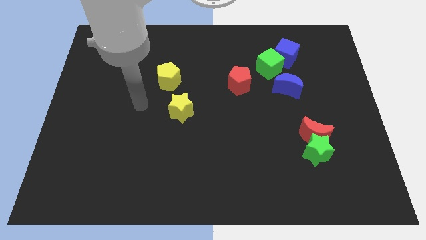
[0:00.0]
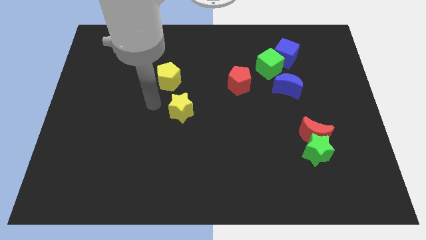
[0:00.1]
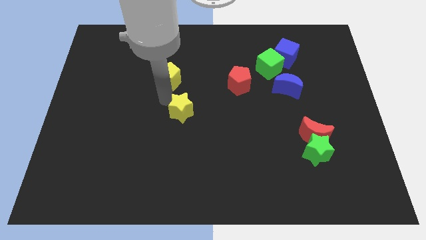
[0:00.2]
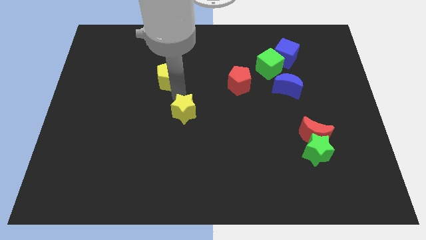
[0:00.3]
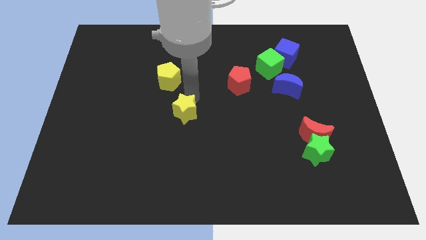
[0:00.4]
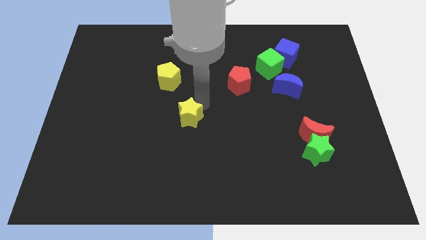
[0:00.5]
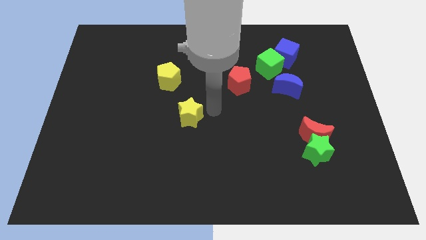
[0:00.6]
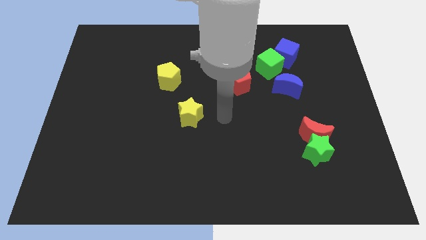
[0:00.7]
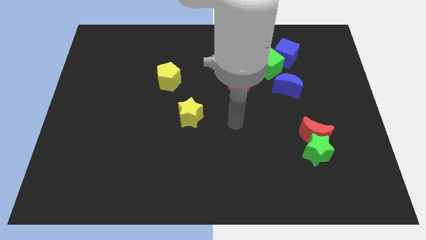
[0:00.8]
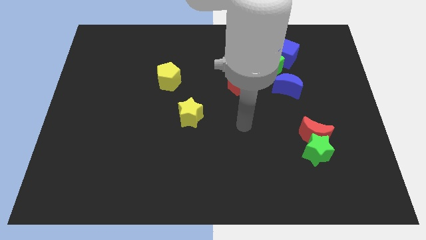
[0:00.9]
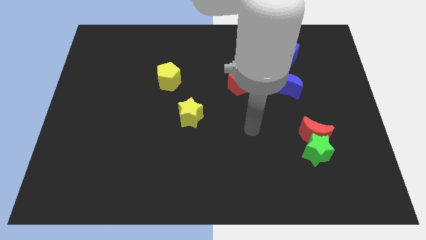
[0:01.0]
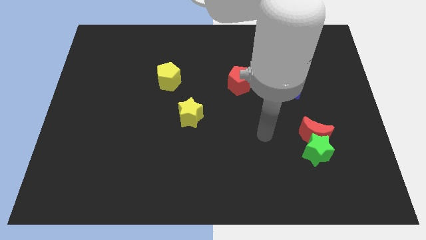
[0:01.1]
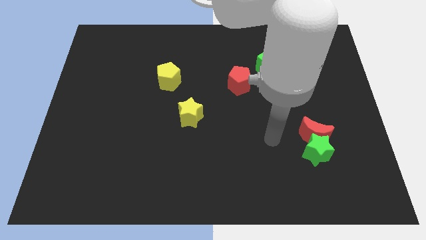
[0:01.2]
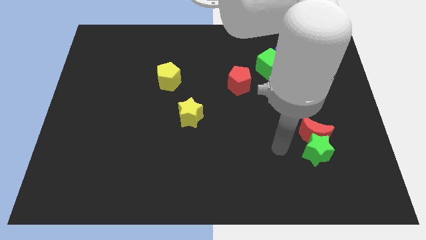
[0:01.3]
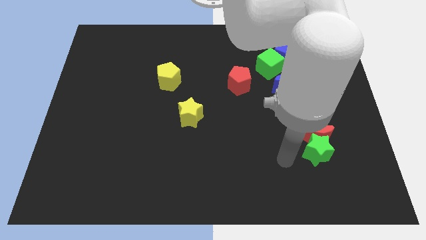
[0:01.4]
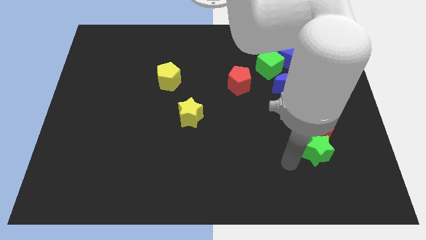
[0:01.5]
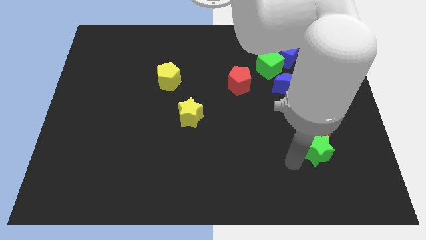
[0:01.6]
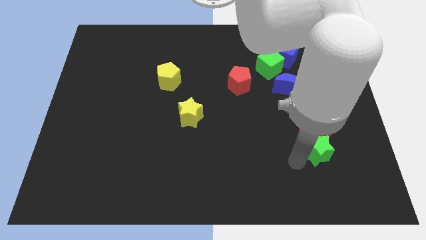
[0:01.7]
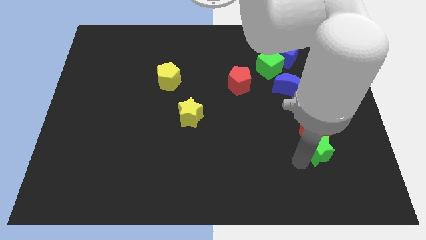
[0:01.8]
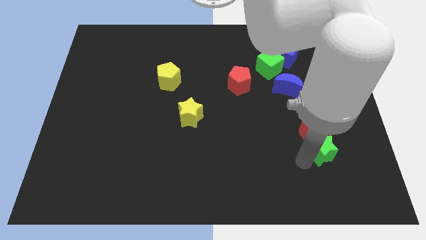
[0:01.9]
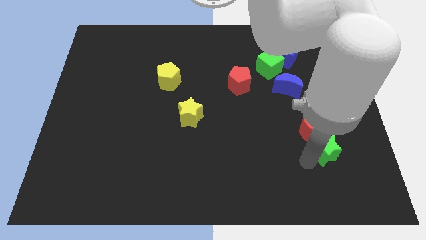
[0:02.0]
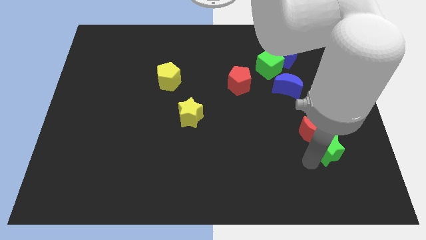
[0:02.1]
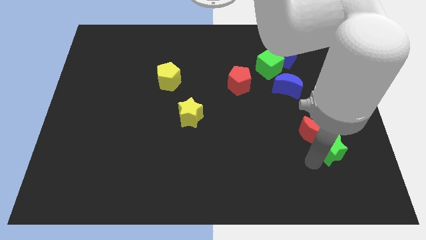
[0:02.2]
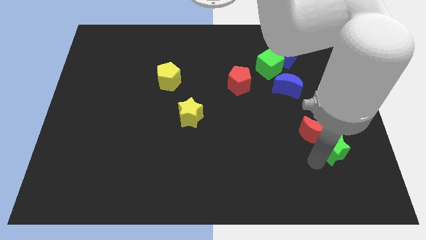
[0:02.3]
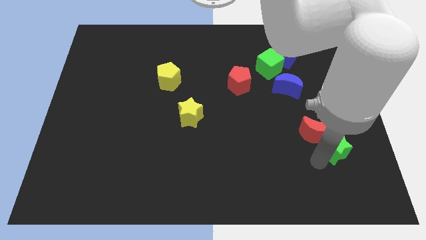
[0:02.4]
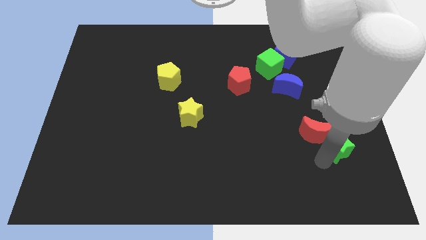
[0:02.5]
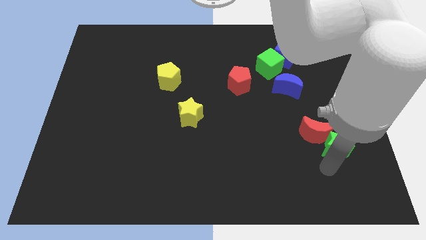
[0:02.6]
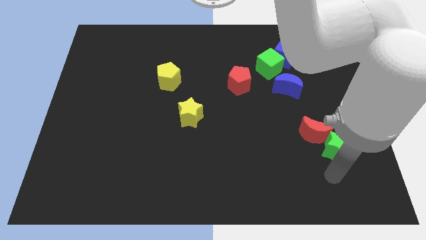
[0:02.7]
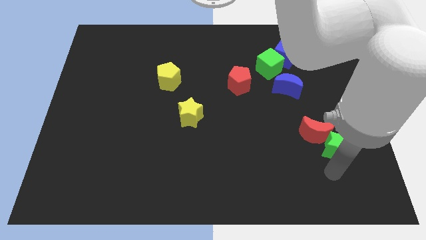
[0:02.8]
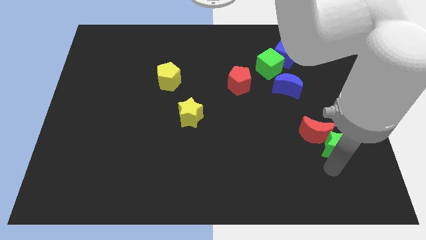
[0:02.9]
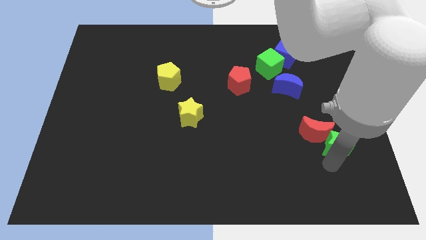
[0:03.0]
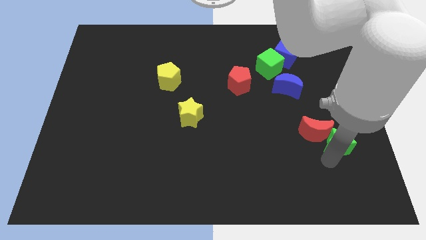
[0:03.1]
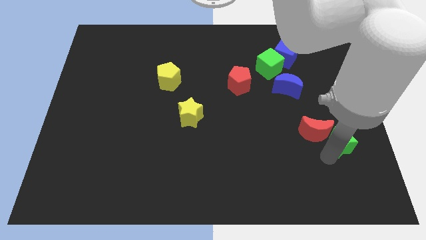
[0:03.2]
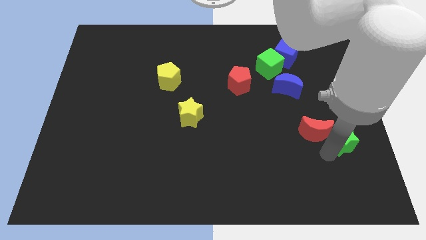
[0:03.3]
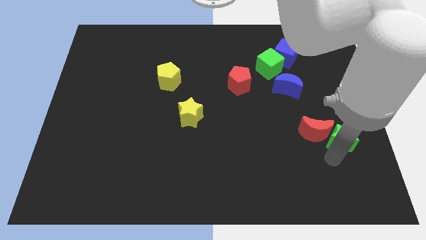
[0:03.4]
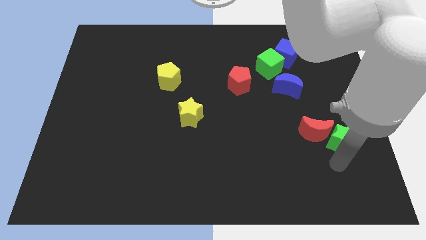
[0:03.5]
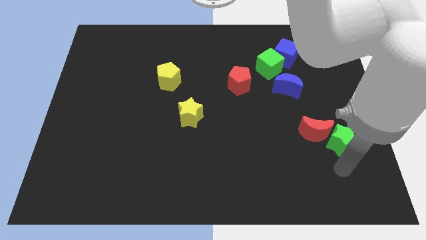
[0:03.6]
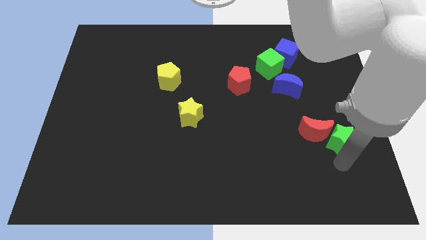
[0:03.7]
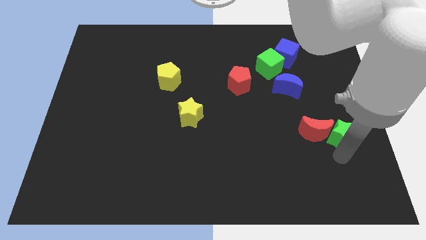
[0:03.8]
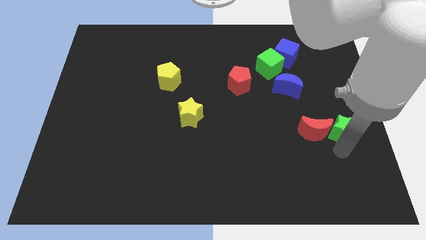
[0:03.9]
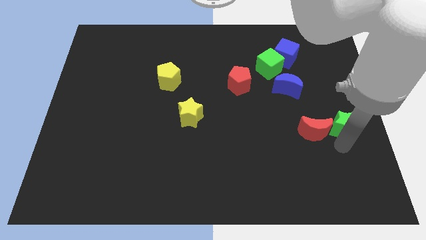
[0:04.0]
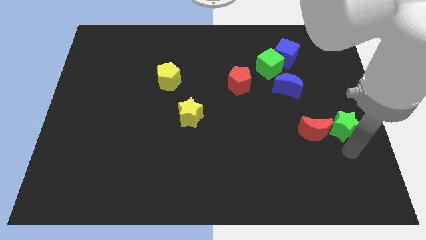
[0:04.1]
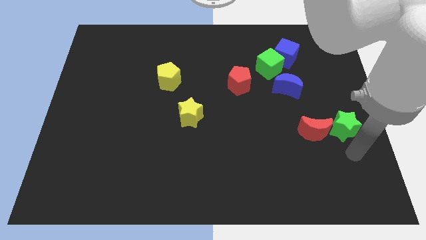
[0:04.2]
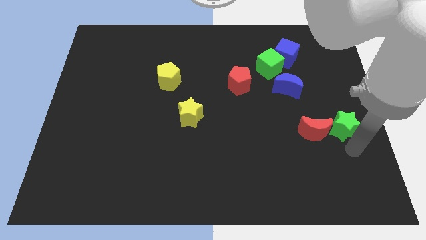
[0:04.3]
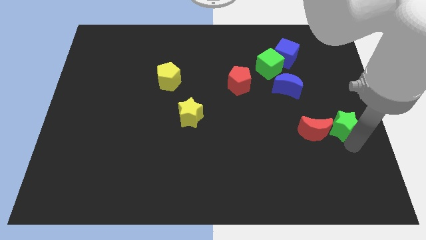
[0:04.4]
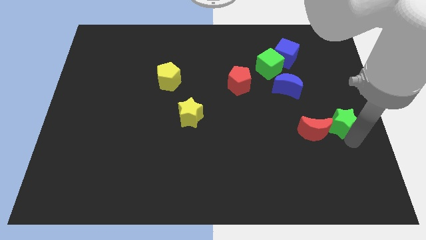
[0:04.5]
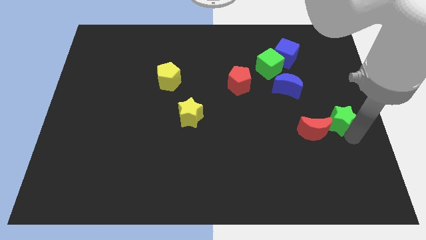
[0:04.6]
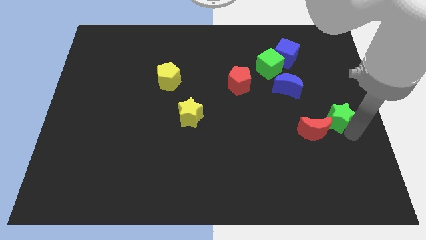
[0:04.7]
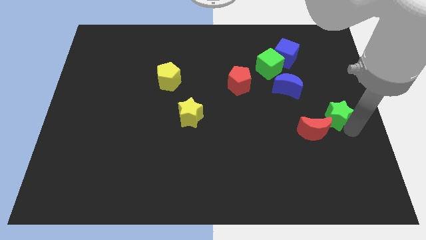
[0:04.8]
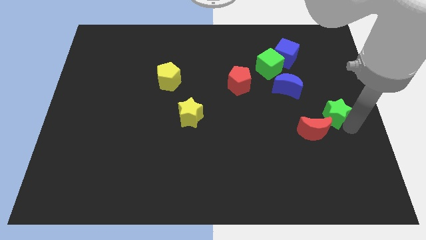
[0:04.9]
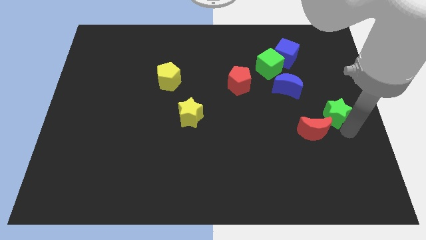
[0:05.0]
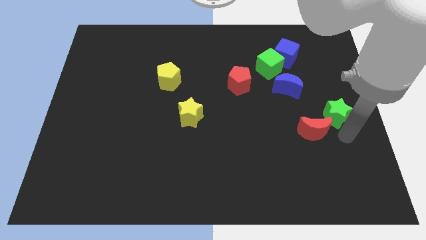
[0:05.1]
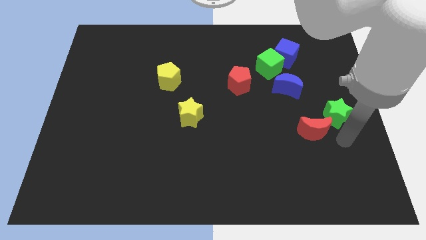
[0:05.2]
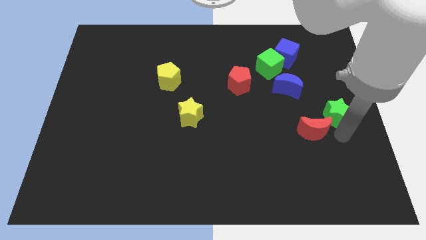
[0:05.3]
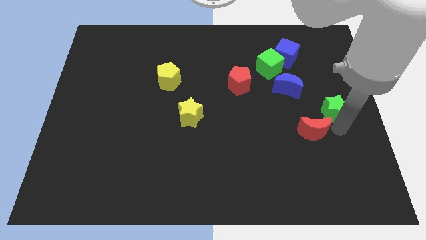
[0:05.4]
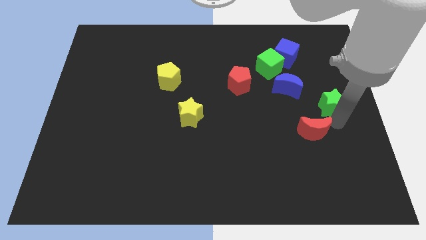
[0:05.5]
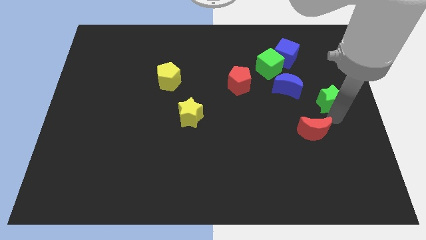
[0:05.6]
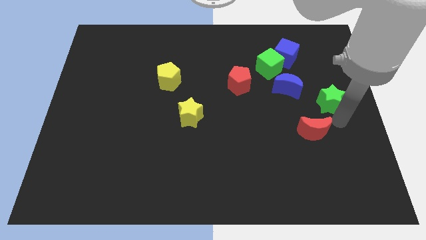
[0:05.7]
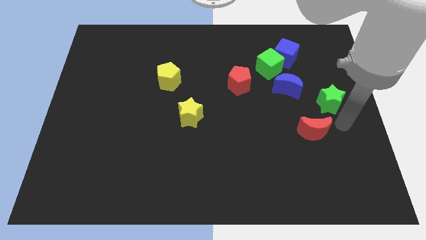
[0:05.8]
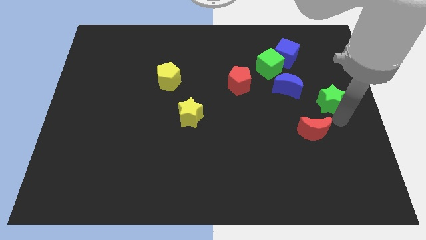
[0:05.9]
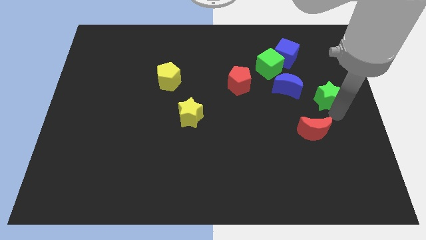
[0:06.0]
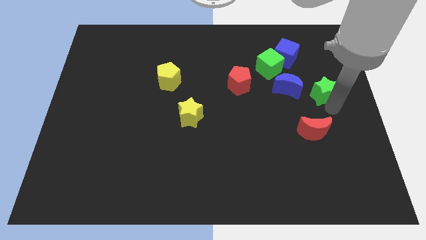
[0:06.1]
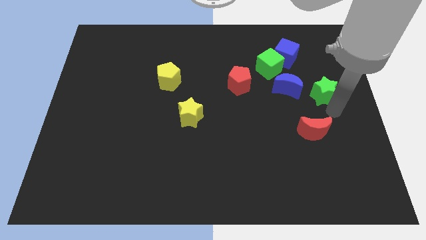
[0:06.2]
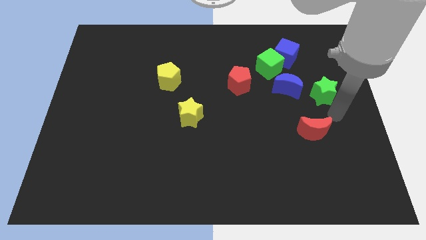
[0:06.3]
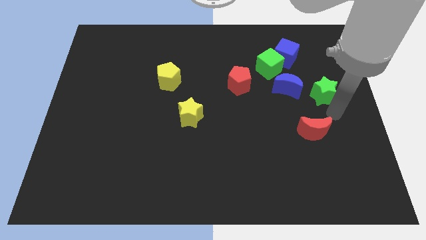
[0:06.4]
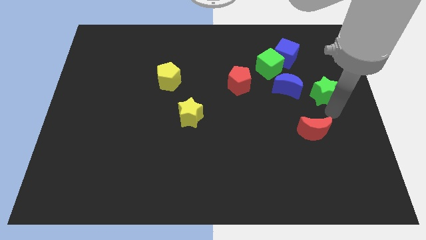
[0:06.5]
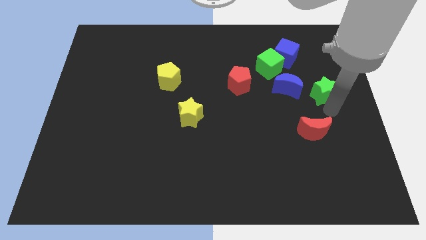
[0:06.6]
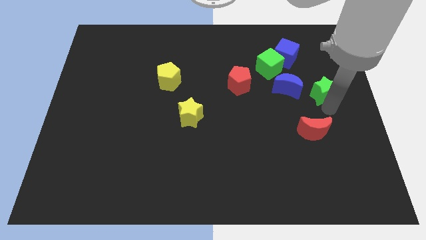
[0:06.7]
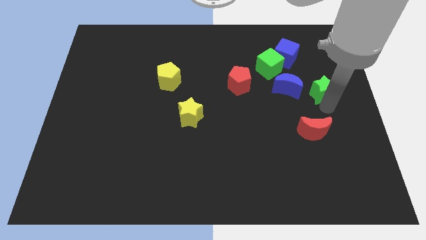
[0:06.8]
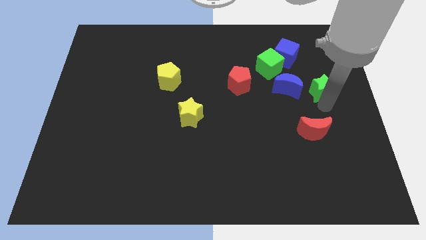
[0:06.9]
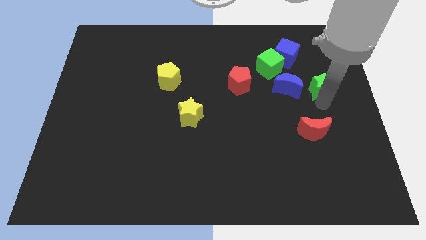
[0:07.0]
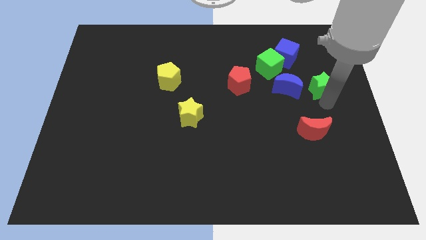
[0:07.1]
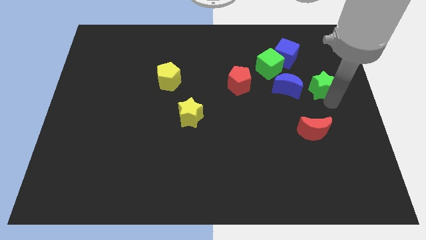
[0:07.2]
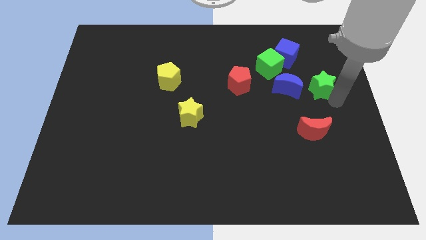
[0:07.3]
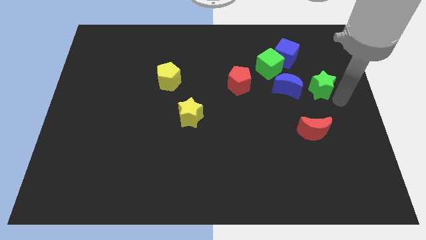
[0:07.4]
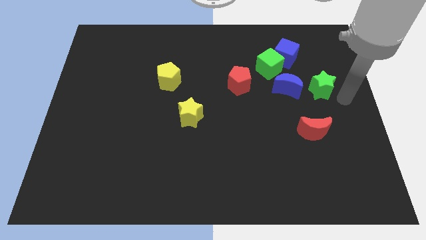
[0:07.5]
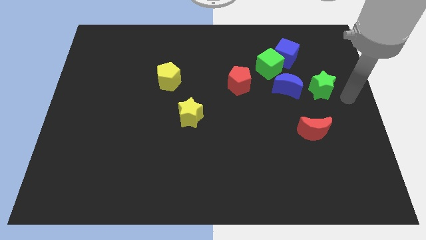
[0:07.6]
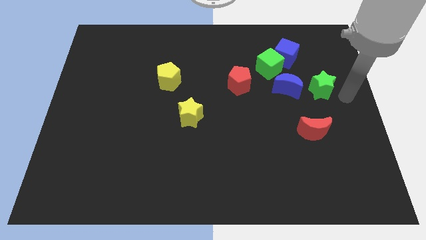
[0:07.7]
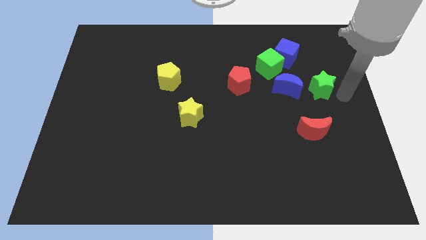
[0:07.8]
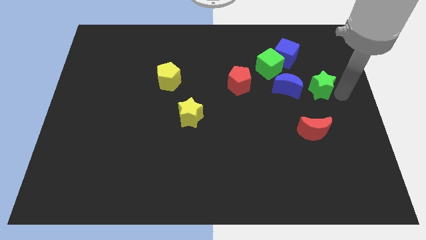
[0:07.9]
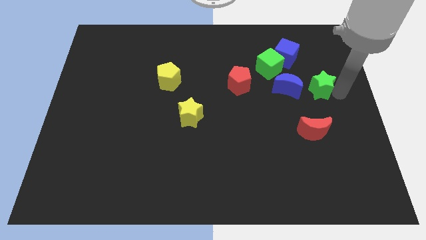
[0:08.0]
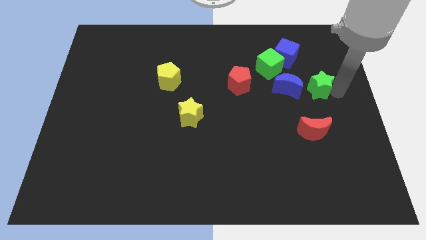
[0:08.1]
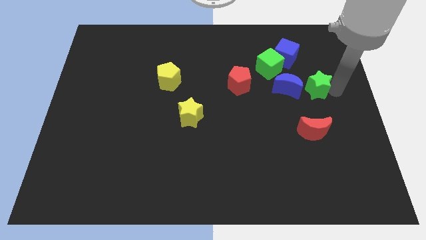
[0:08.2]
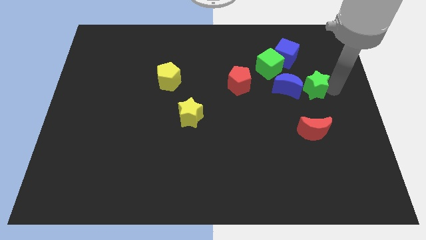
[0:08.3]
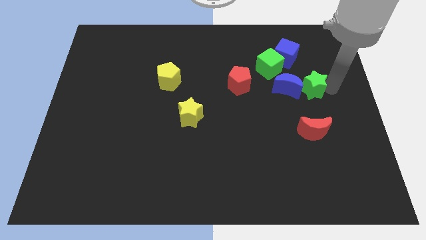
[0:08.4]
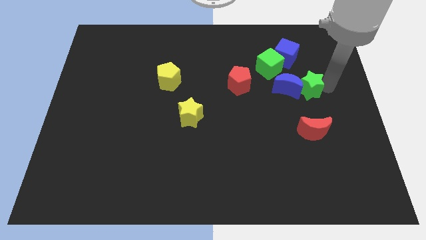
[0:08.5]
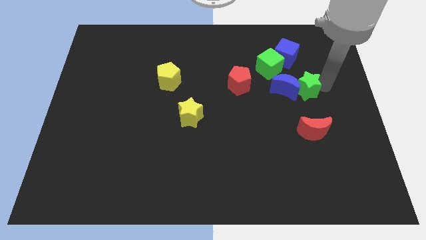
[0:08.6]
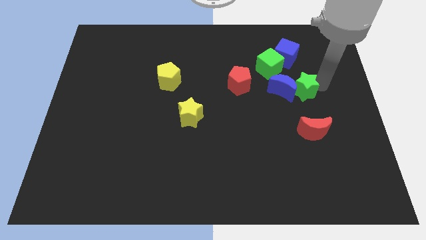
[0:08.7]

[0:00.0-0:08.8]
put the green star right of the red pentagon
